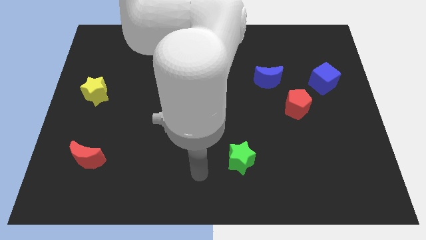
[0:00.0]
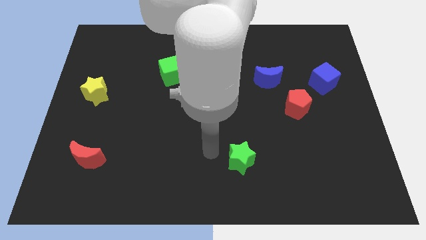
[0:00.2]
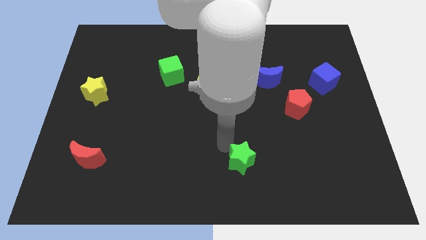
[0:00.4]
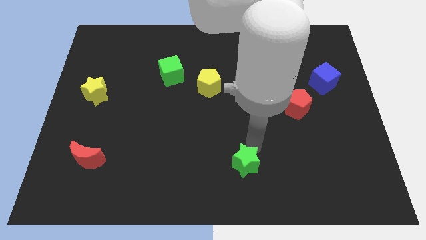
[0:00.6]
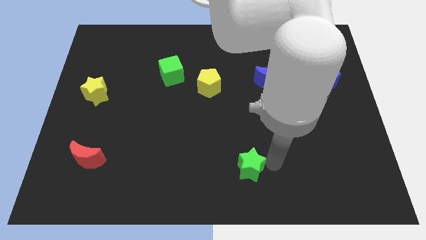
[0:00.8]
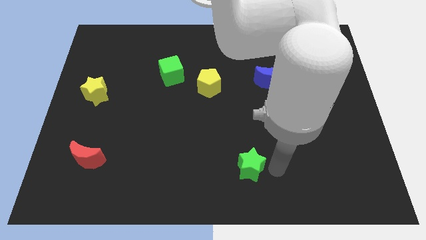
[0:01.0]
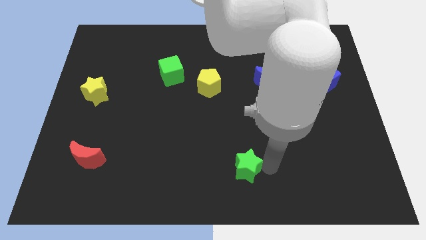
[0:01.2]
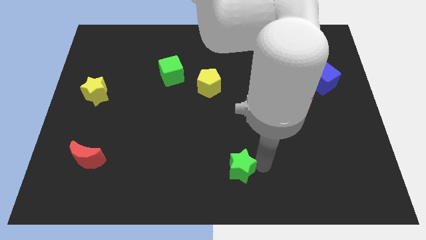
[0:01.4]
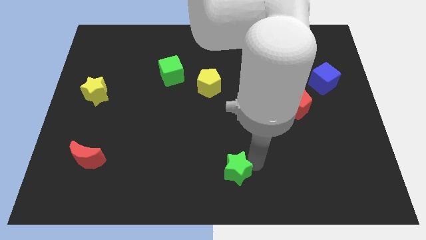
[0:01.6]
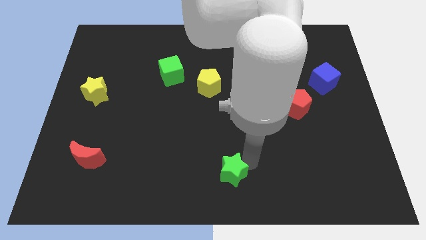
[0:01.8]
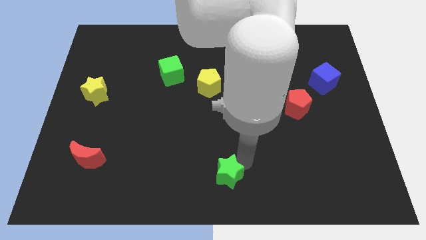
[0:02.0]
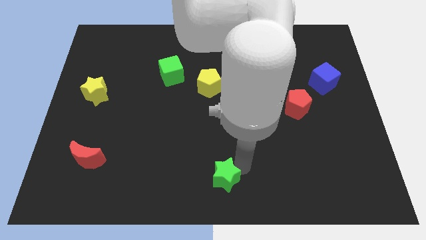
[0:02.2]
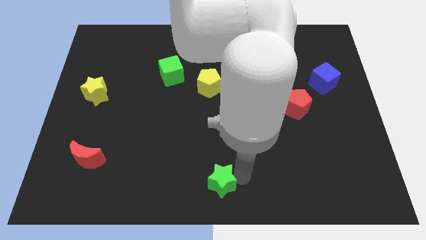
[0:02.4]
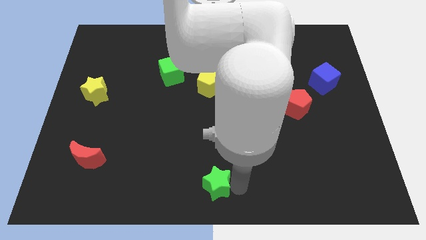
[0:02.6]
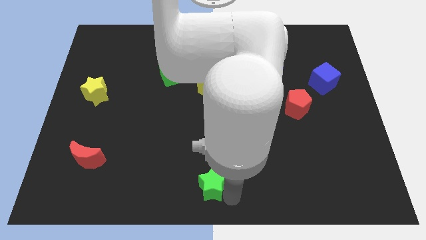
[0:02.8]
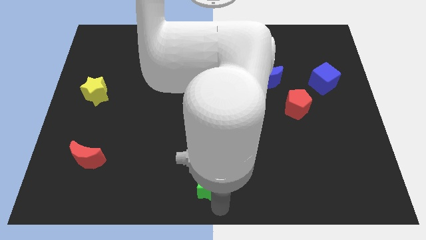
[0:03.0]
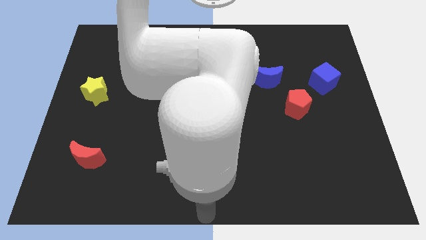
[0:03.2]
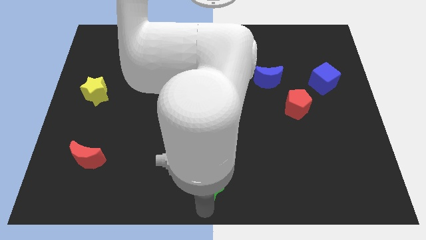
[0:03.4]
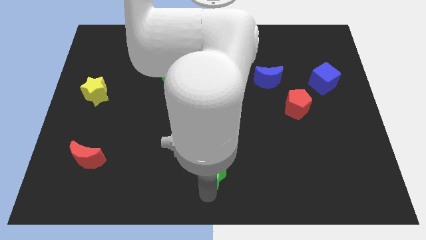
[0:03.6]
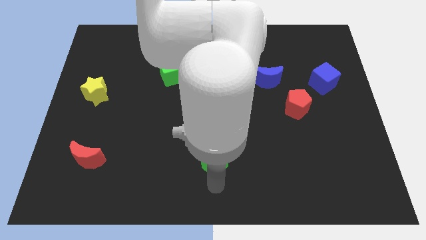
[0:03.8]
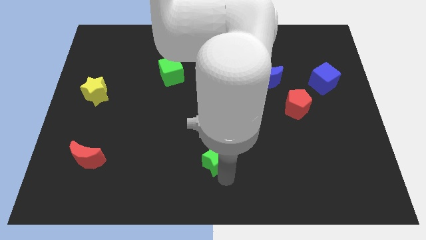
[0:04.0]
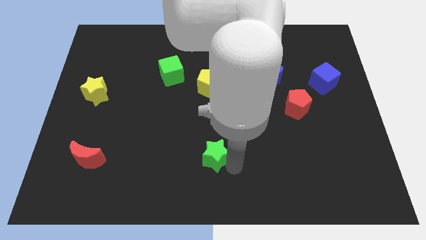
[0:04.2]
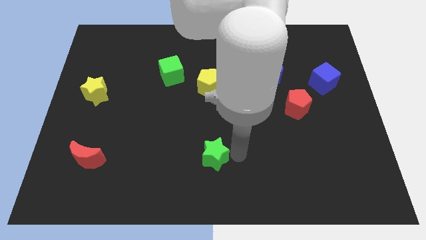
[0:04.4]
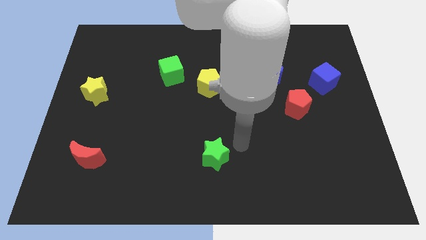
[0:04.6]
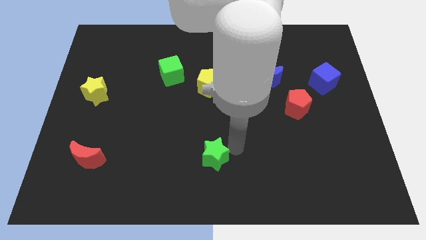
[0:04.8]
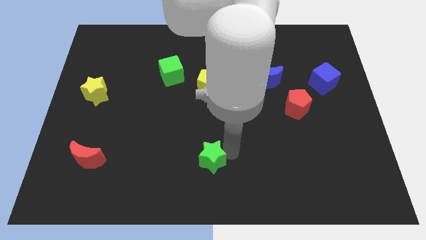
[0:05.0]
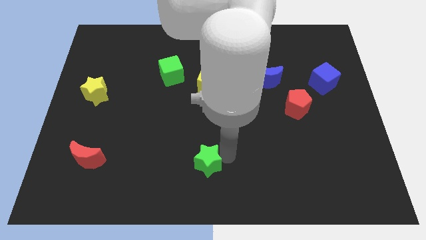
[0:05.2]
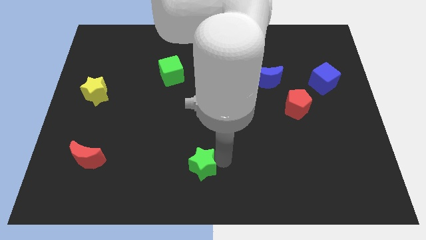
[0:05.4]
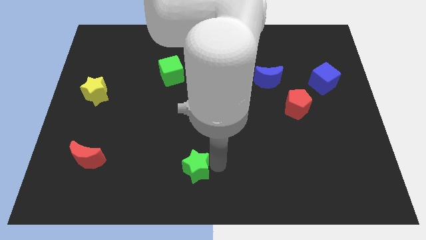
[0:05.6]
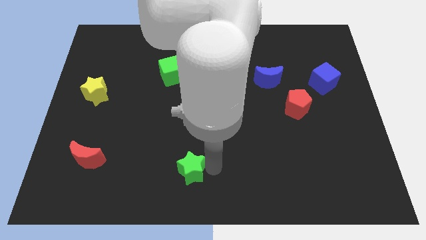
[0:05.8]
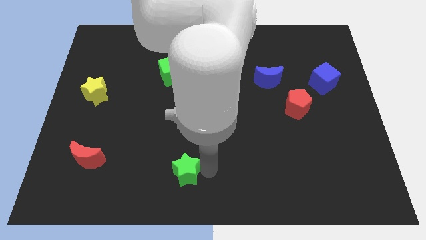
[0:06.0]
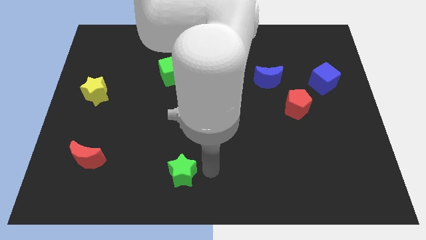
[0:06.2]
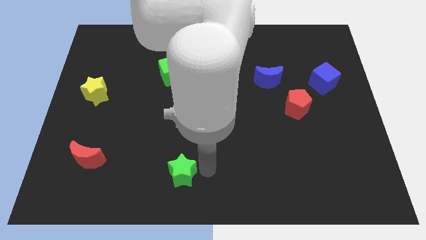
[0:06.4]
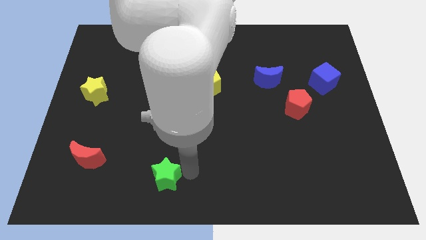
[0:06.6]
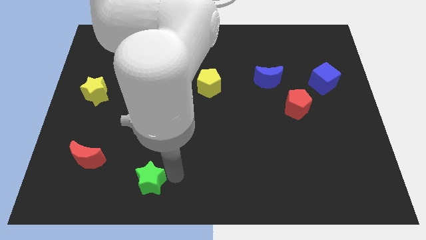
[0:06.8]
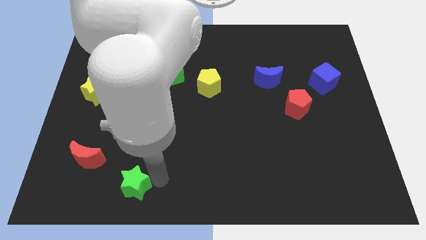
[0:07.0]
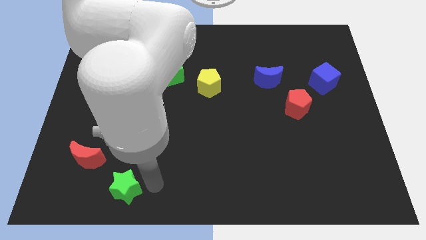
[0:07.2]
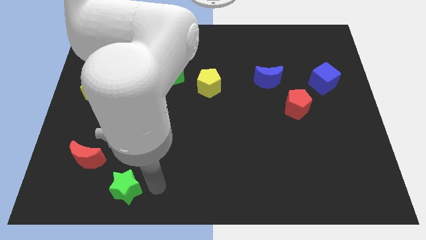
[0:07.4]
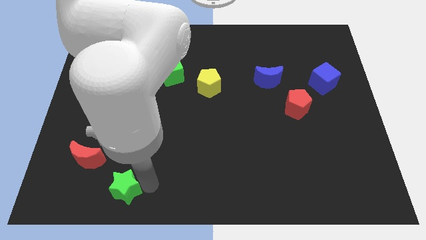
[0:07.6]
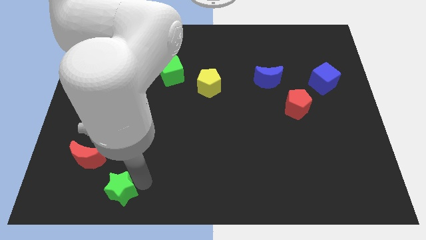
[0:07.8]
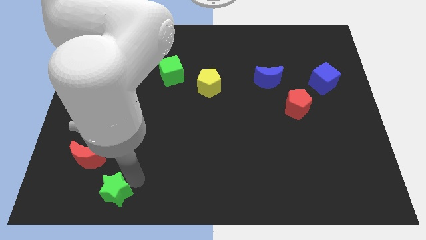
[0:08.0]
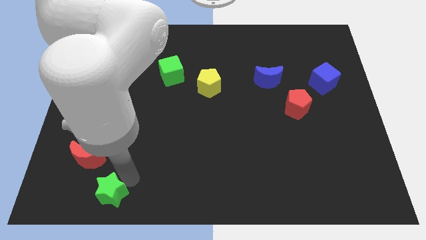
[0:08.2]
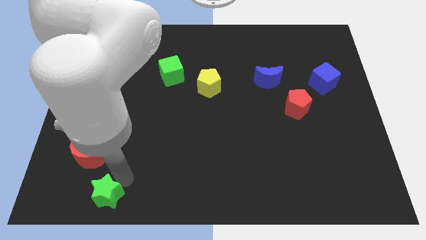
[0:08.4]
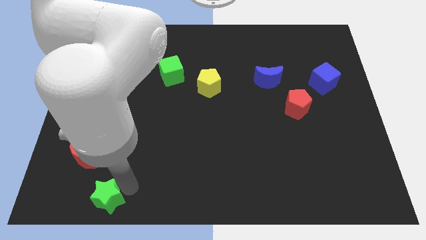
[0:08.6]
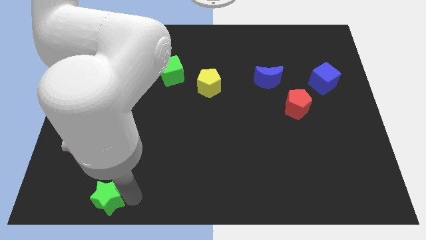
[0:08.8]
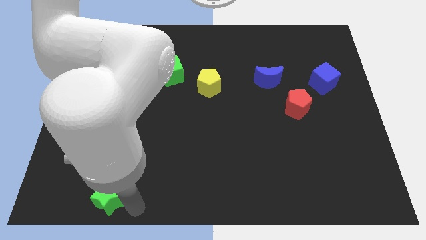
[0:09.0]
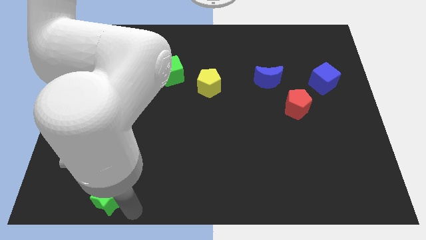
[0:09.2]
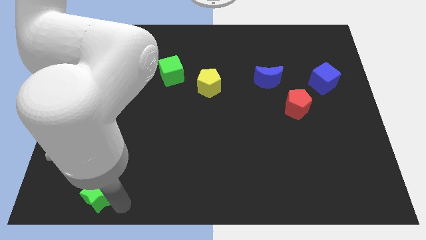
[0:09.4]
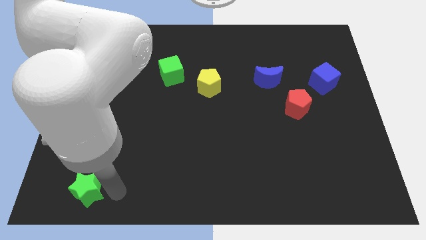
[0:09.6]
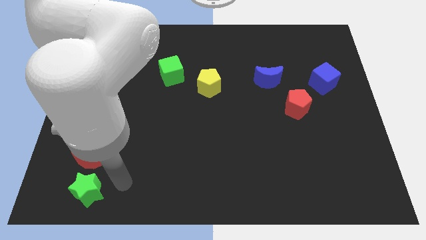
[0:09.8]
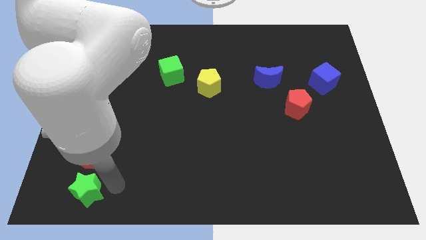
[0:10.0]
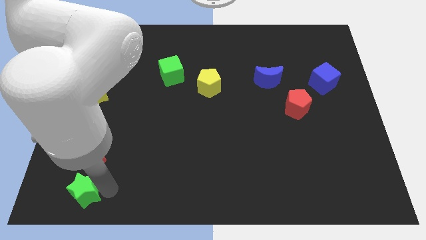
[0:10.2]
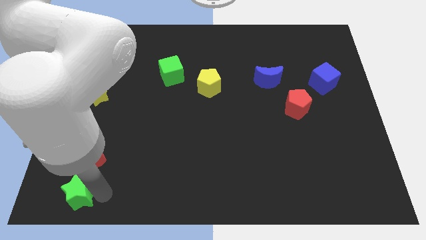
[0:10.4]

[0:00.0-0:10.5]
put the green star to the bottom left corner

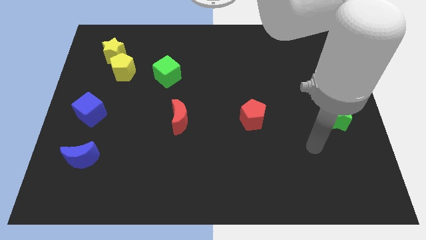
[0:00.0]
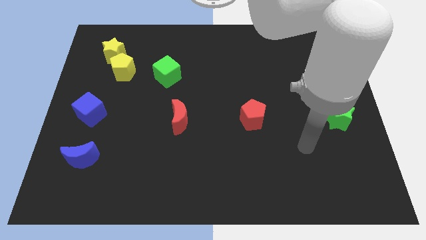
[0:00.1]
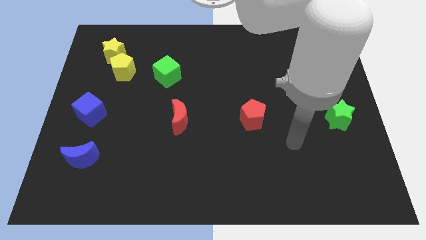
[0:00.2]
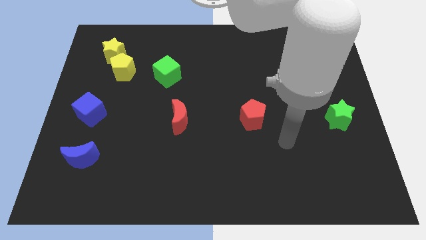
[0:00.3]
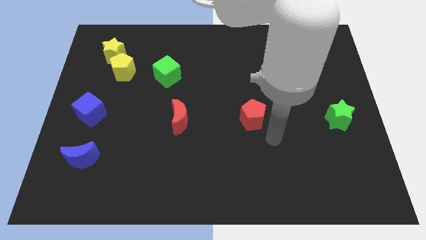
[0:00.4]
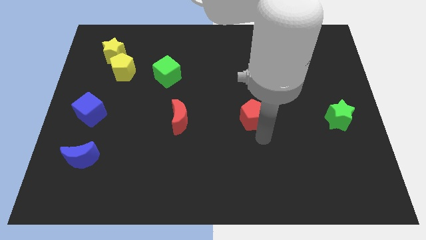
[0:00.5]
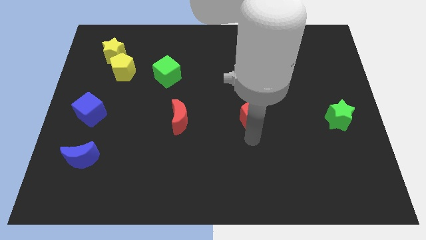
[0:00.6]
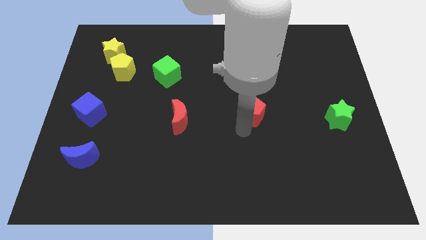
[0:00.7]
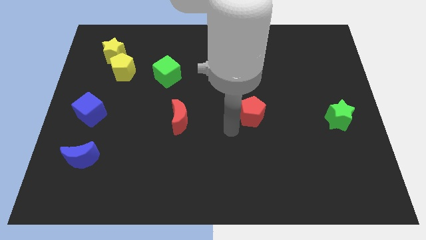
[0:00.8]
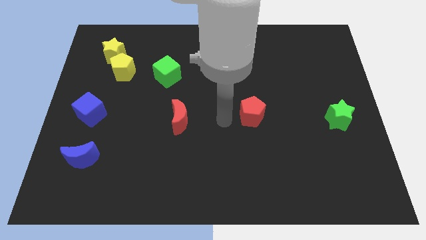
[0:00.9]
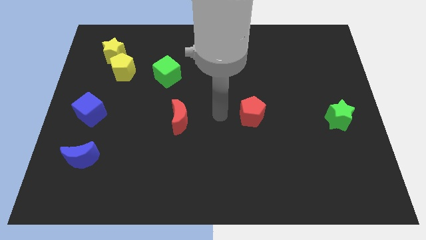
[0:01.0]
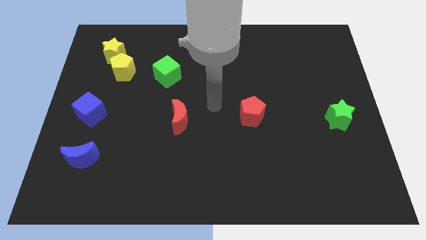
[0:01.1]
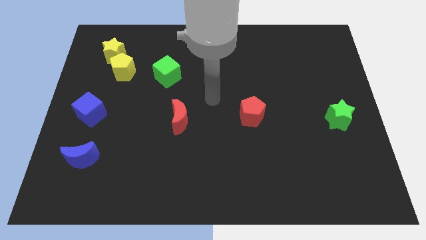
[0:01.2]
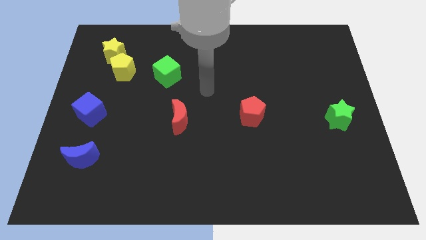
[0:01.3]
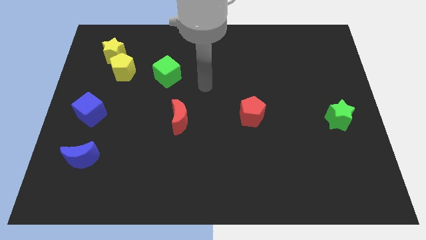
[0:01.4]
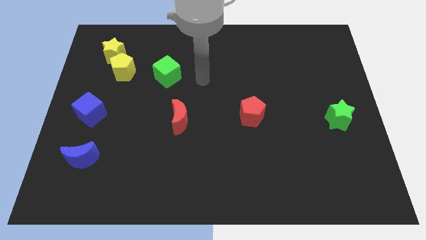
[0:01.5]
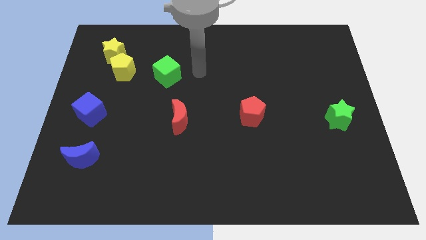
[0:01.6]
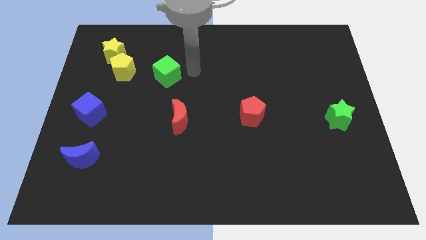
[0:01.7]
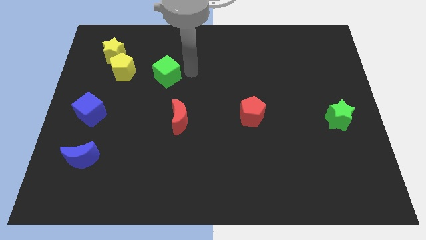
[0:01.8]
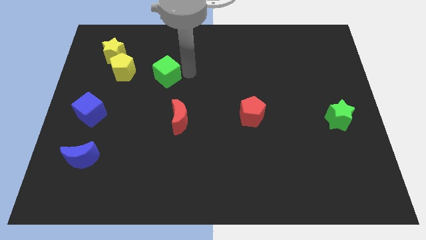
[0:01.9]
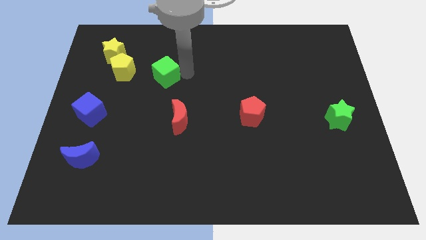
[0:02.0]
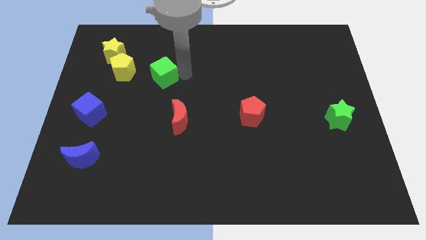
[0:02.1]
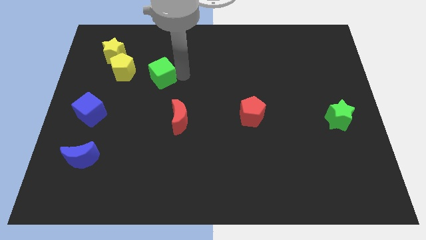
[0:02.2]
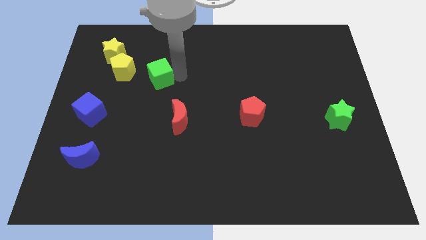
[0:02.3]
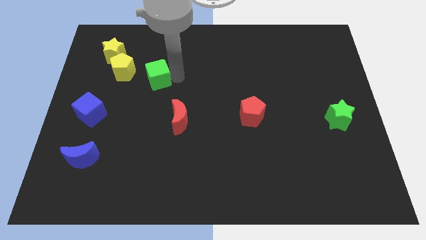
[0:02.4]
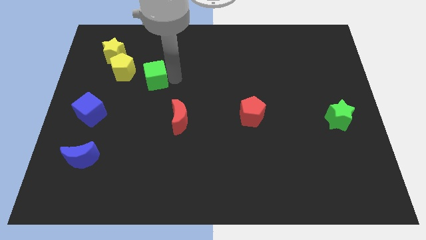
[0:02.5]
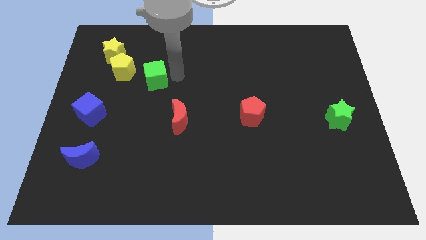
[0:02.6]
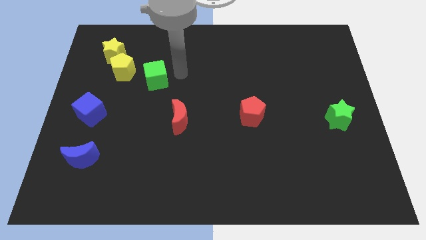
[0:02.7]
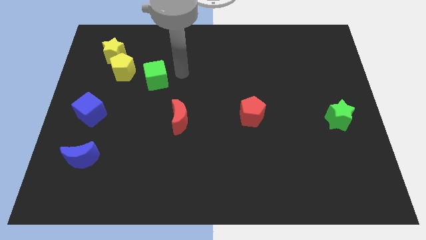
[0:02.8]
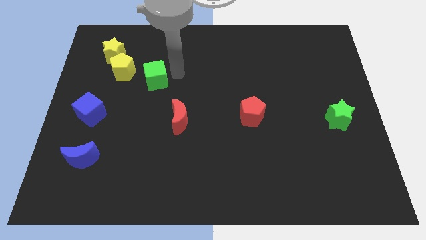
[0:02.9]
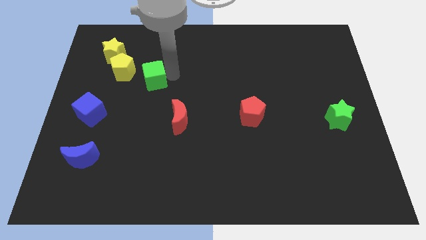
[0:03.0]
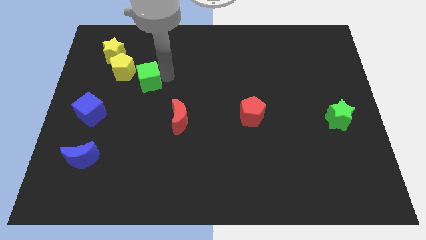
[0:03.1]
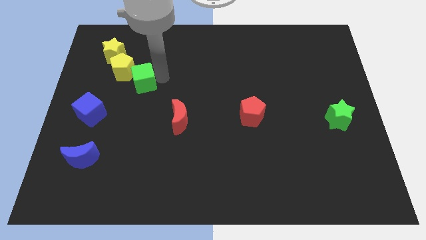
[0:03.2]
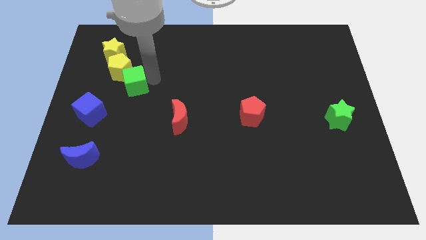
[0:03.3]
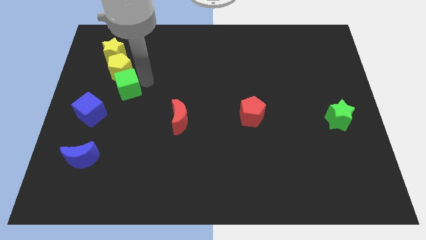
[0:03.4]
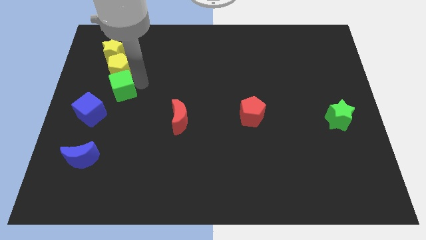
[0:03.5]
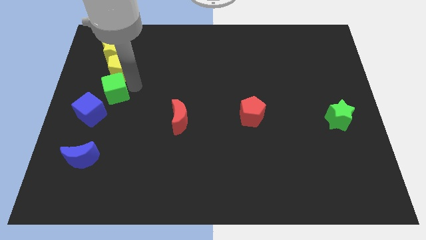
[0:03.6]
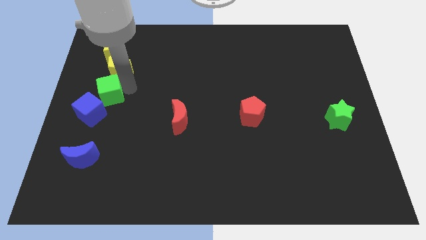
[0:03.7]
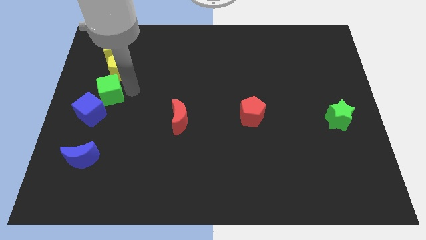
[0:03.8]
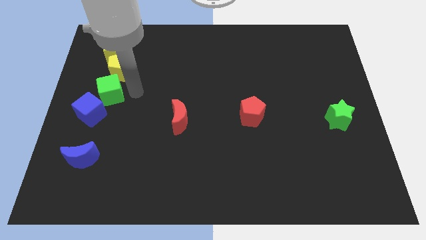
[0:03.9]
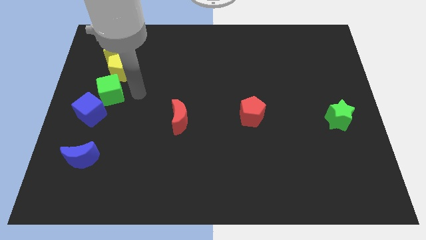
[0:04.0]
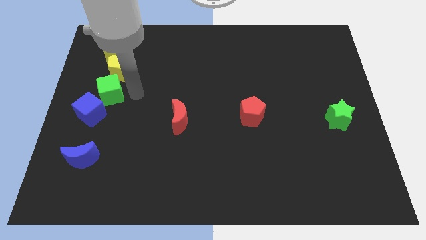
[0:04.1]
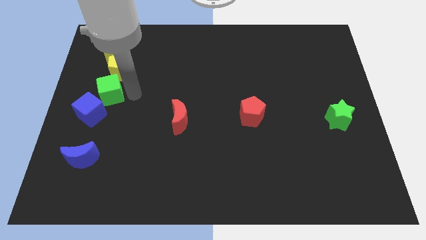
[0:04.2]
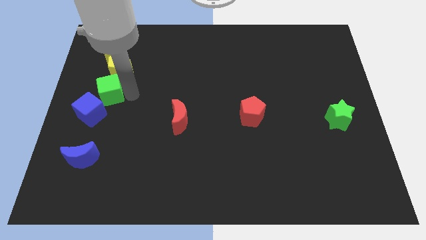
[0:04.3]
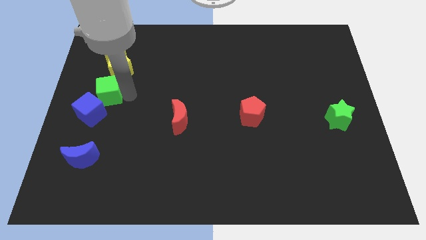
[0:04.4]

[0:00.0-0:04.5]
push the green cube to the left side
